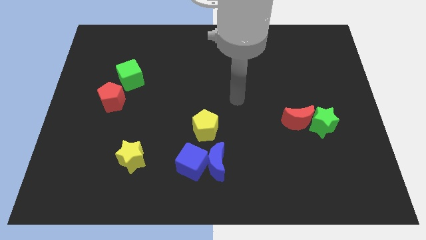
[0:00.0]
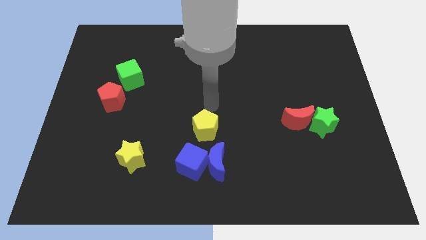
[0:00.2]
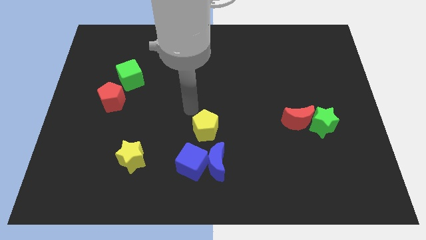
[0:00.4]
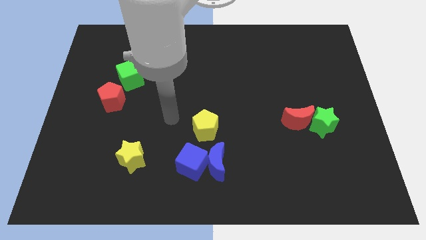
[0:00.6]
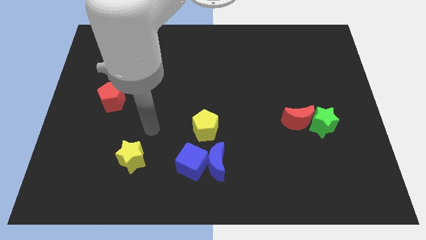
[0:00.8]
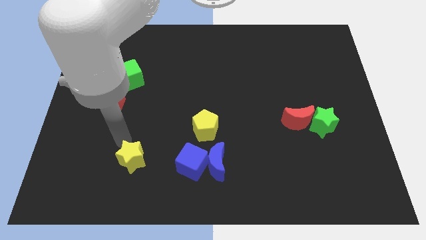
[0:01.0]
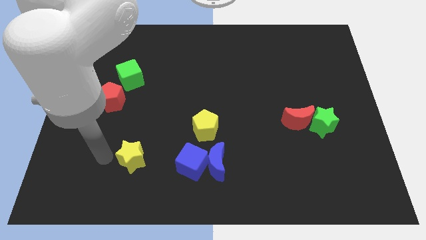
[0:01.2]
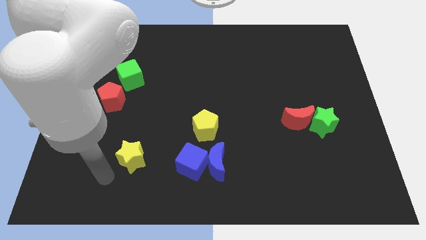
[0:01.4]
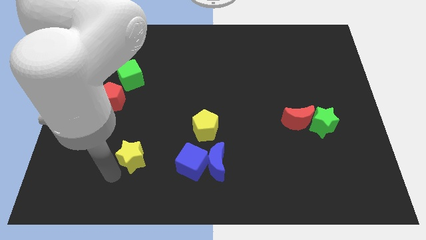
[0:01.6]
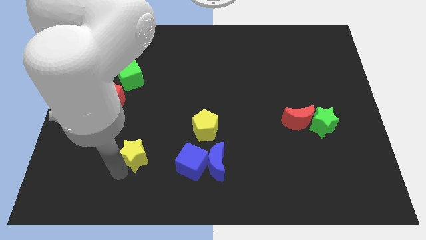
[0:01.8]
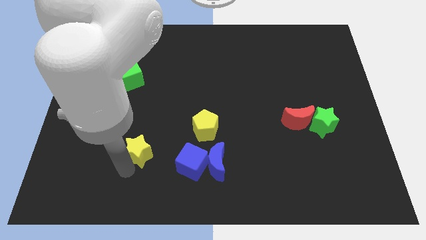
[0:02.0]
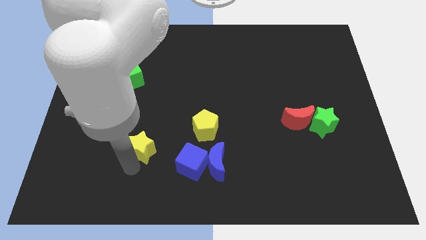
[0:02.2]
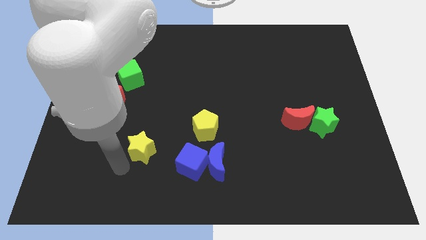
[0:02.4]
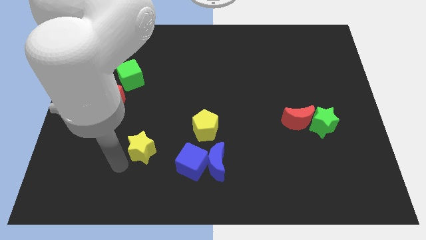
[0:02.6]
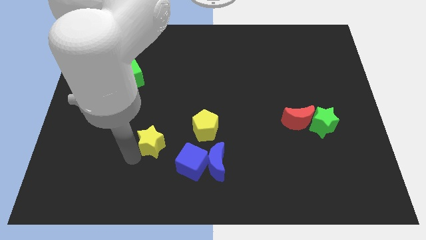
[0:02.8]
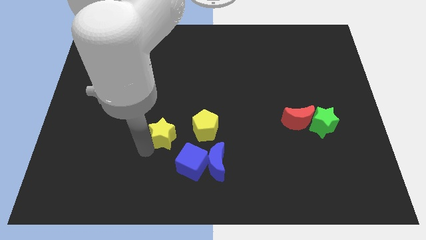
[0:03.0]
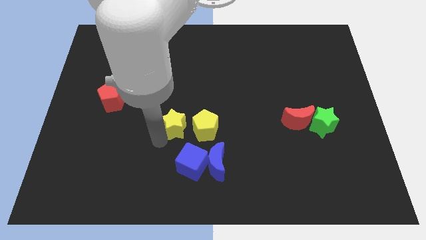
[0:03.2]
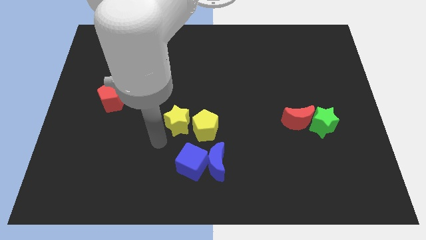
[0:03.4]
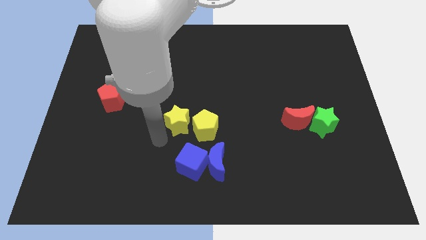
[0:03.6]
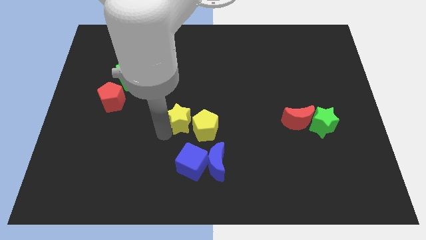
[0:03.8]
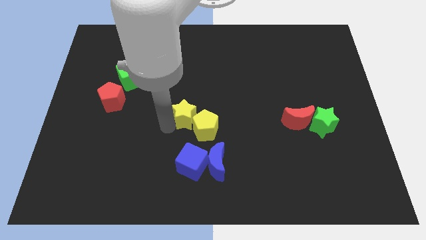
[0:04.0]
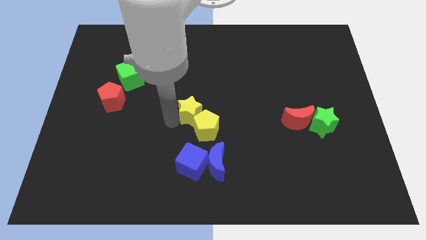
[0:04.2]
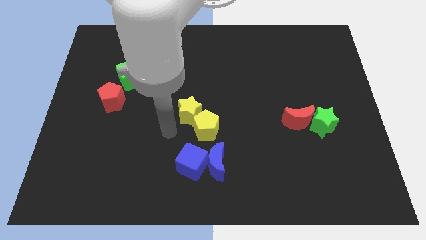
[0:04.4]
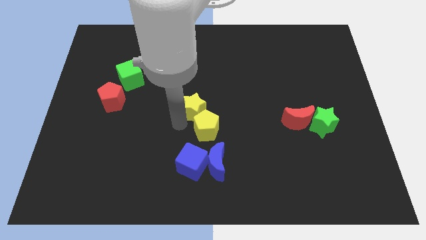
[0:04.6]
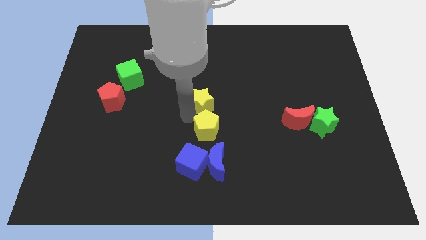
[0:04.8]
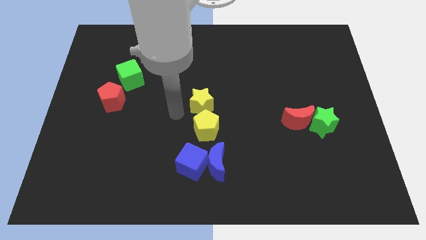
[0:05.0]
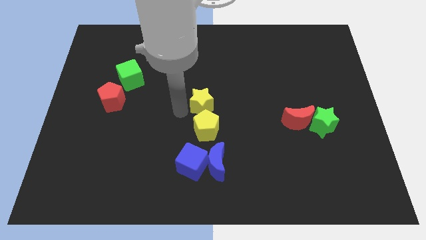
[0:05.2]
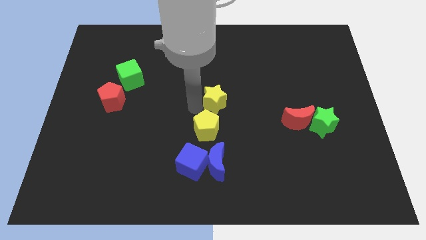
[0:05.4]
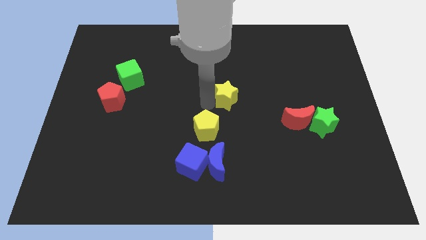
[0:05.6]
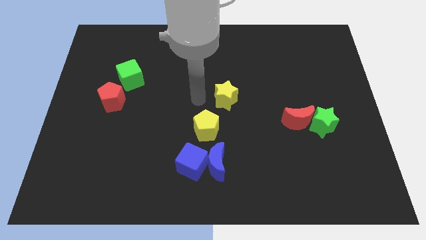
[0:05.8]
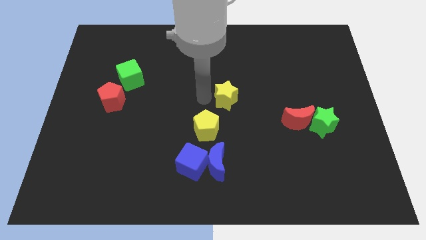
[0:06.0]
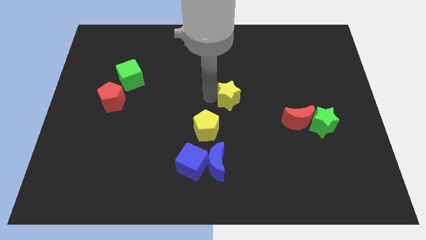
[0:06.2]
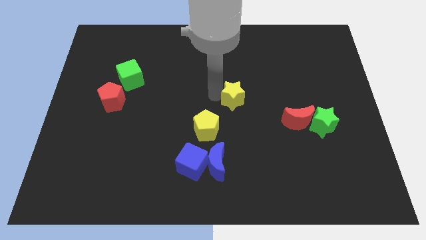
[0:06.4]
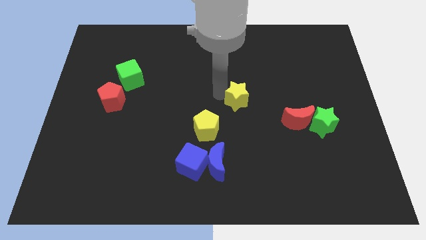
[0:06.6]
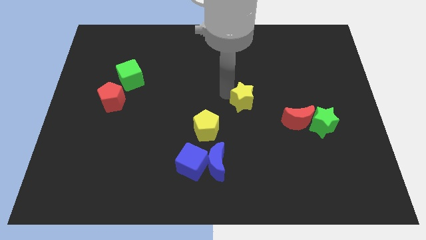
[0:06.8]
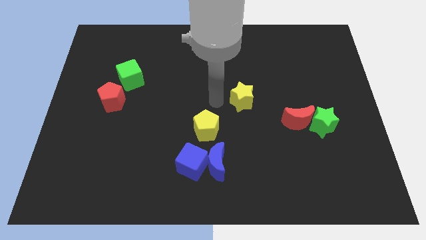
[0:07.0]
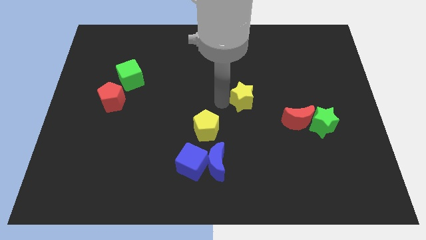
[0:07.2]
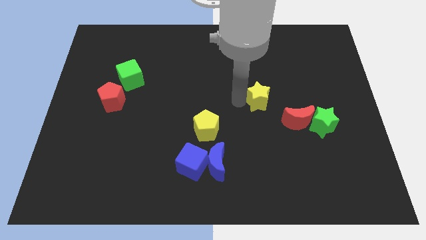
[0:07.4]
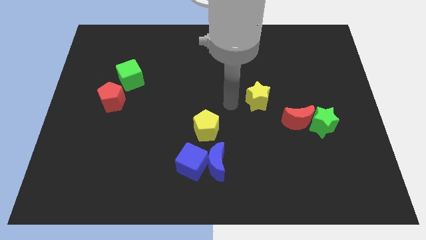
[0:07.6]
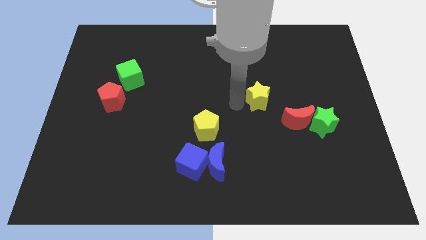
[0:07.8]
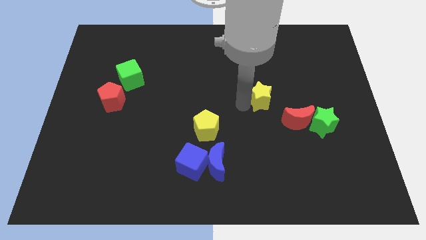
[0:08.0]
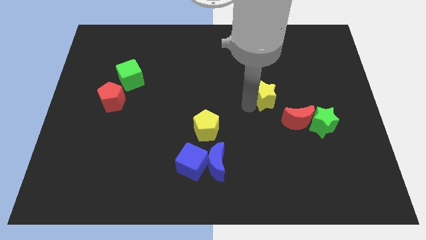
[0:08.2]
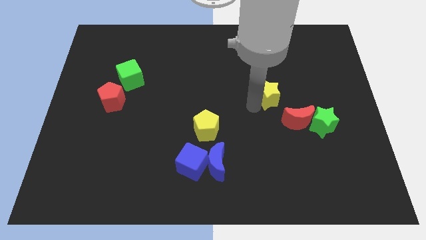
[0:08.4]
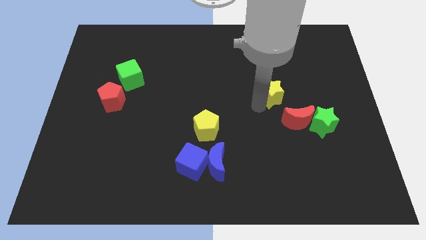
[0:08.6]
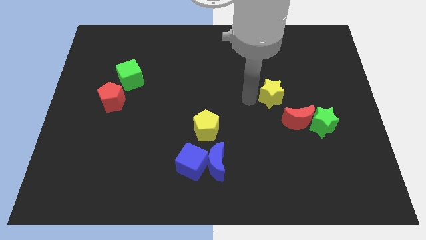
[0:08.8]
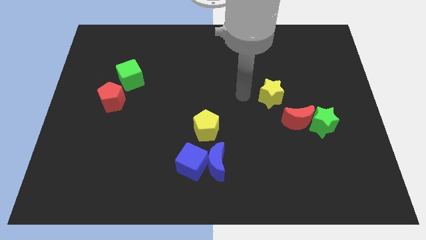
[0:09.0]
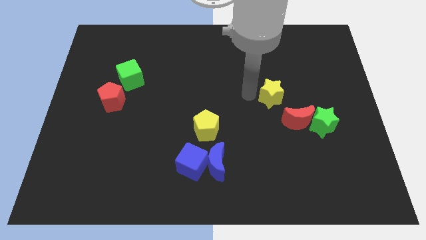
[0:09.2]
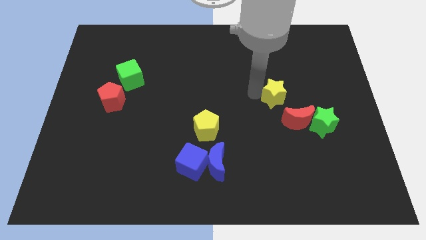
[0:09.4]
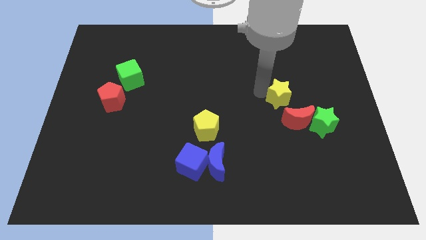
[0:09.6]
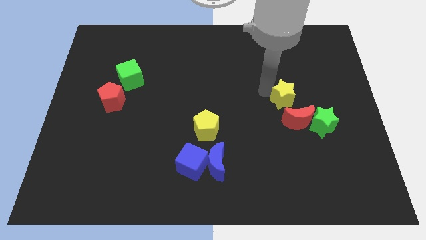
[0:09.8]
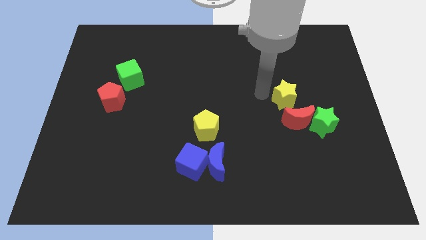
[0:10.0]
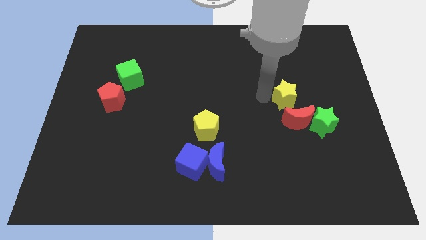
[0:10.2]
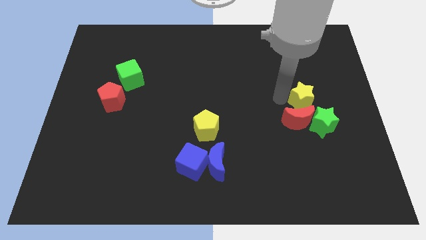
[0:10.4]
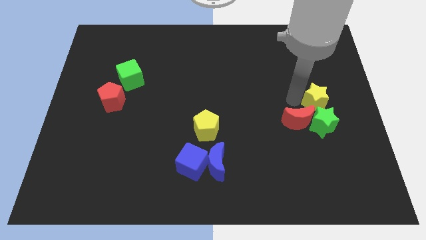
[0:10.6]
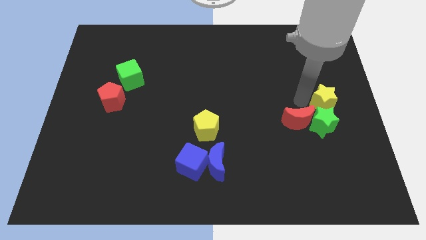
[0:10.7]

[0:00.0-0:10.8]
put the yellow star to the right side
